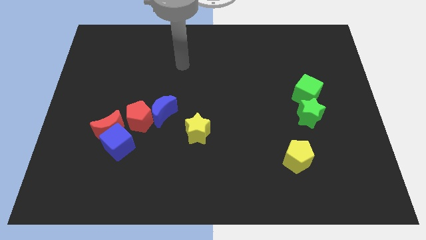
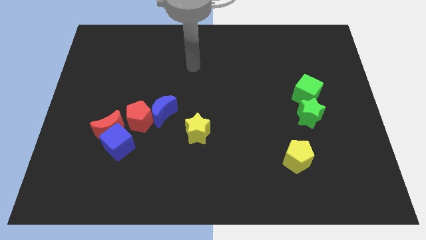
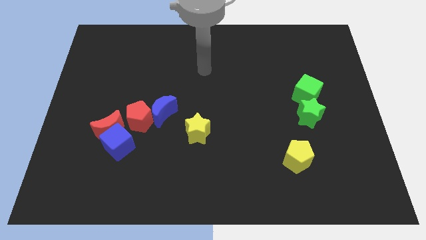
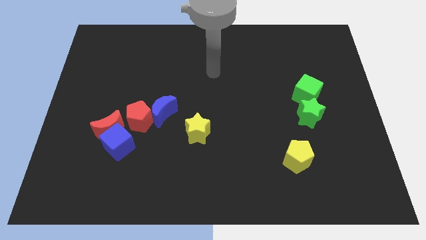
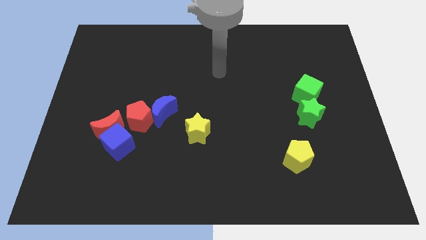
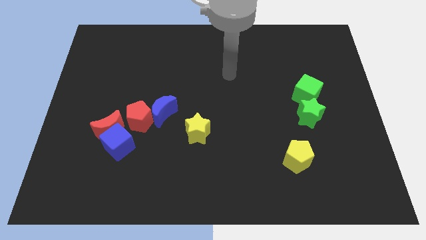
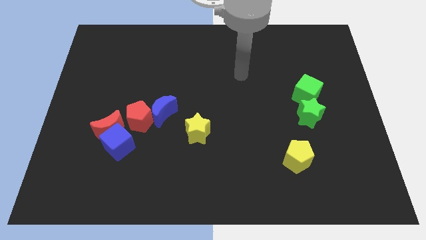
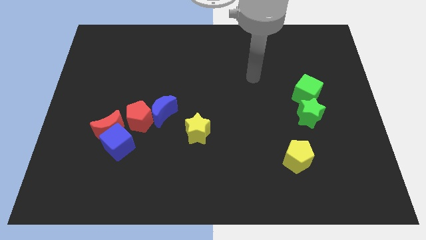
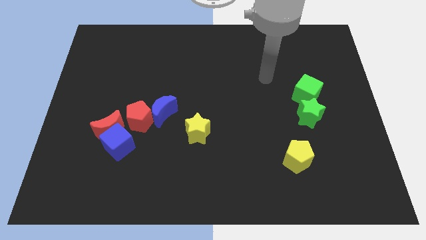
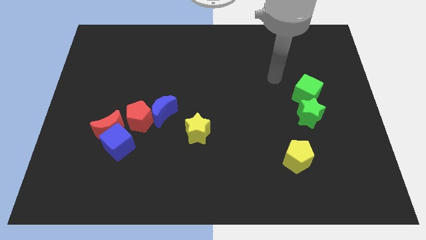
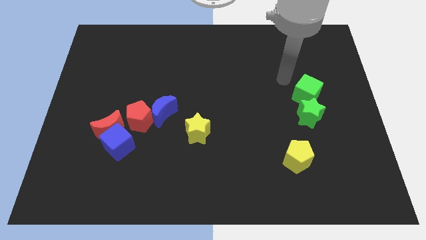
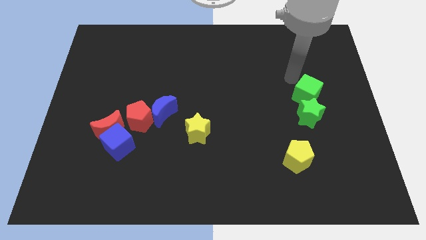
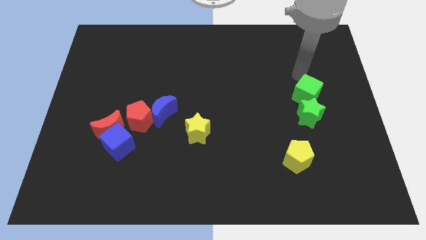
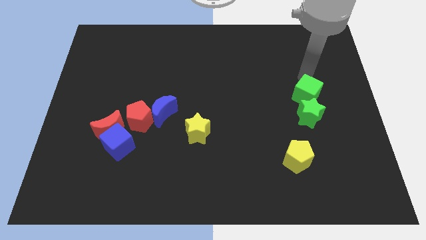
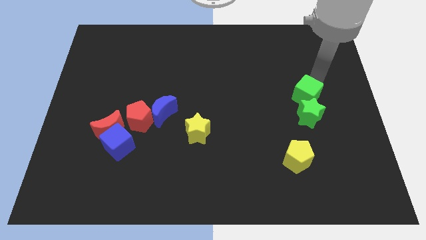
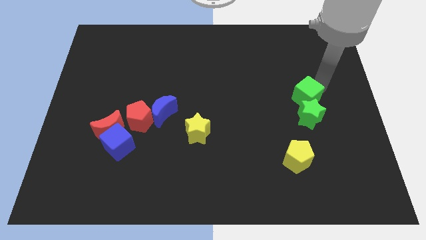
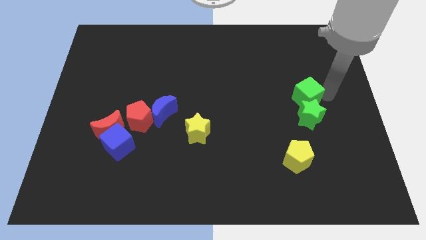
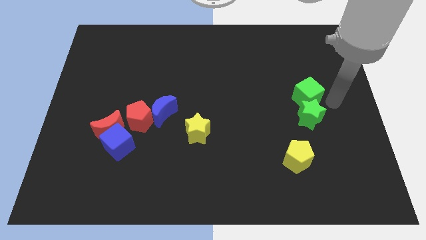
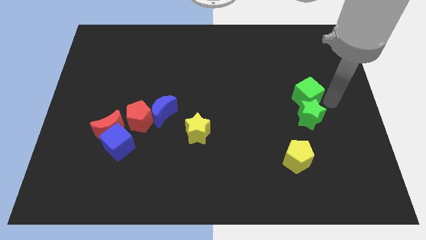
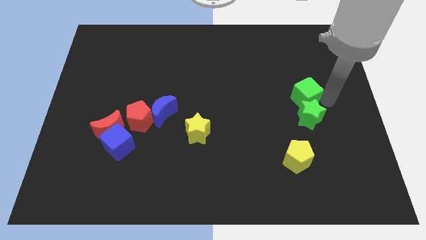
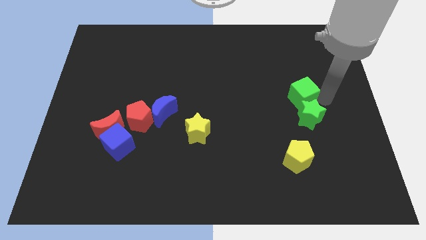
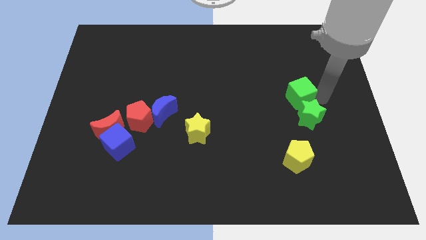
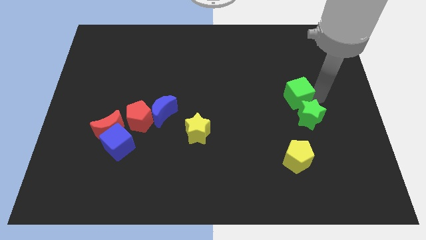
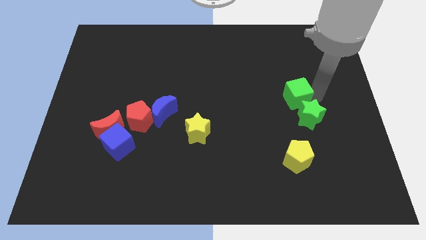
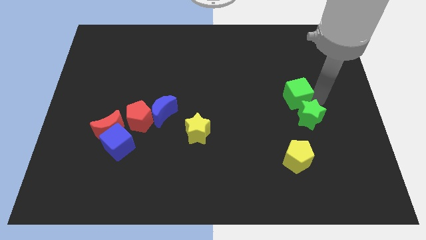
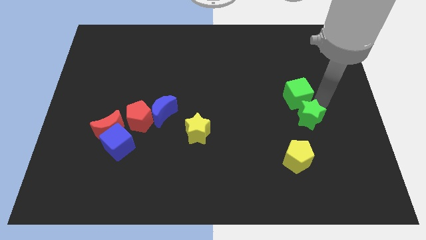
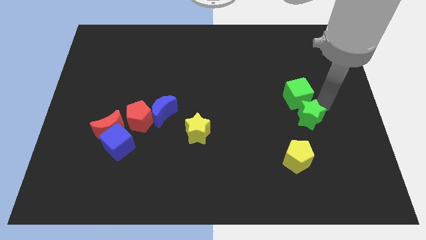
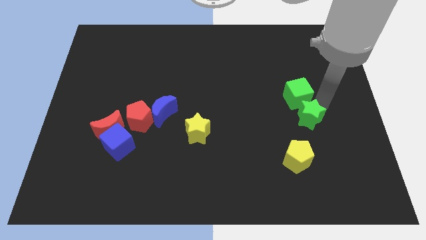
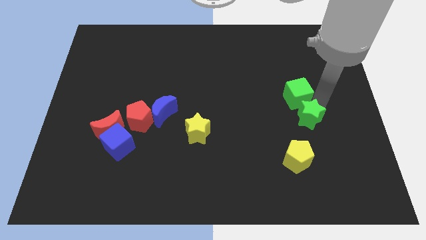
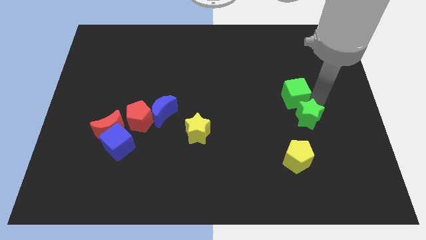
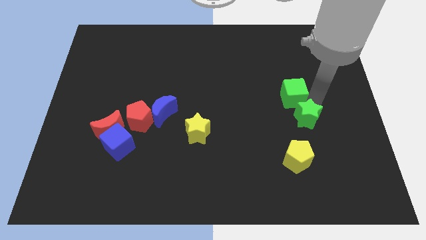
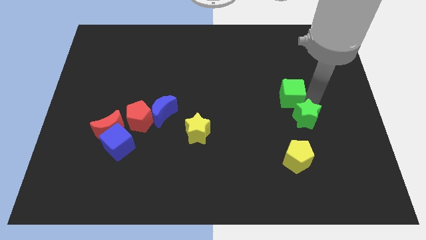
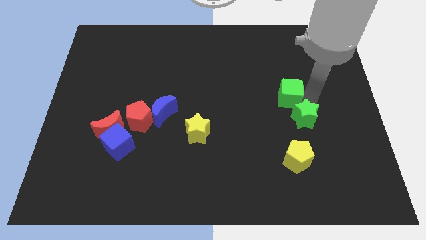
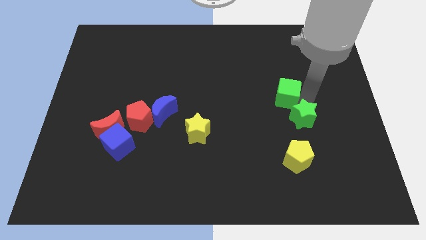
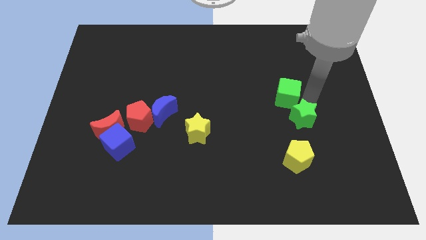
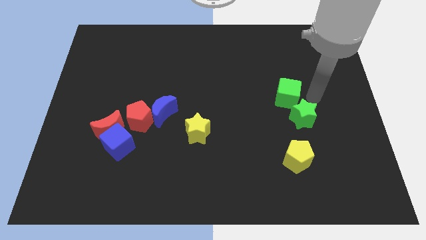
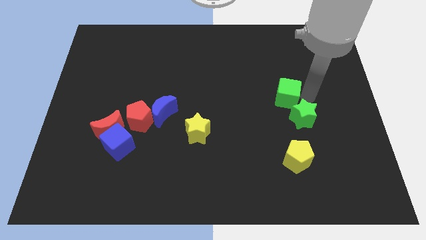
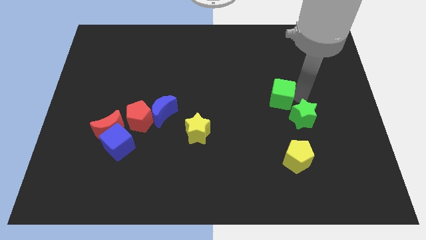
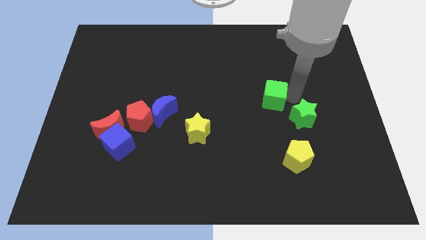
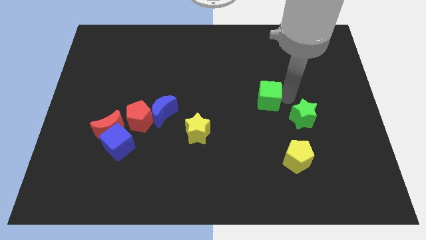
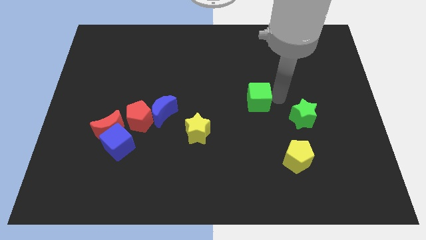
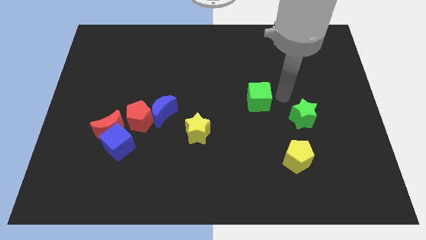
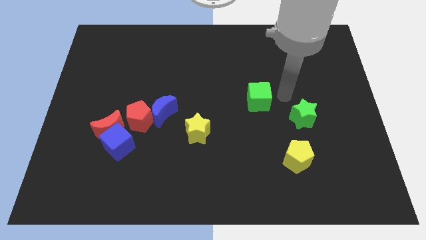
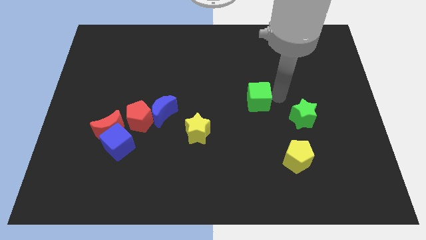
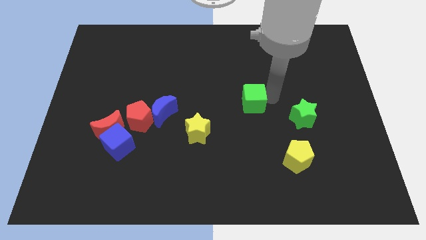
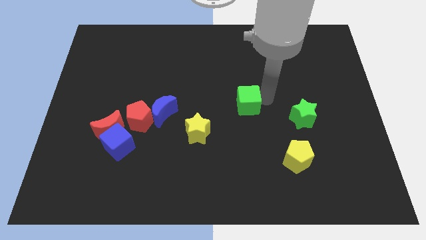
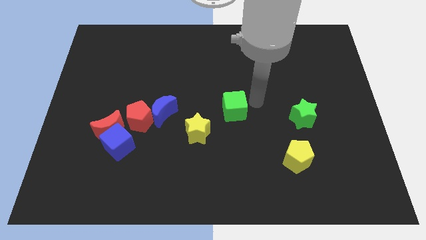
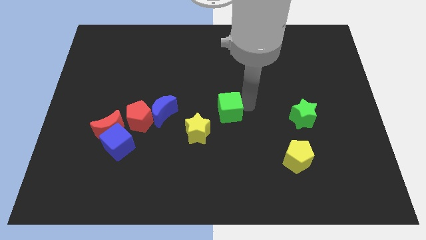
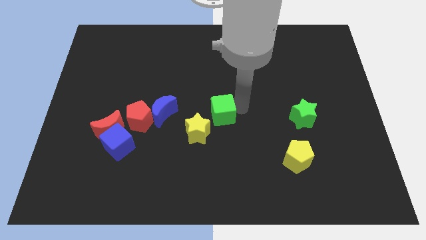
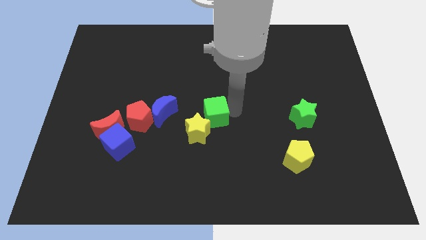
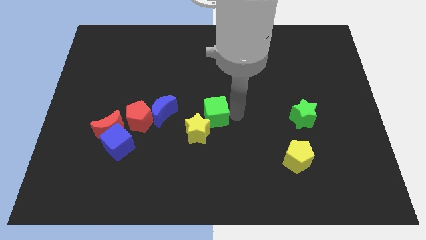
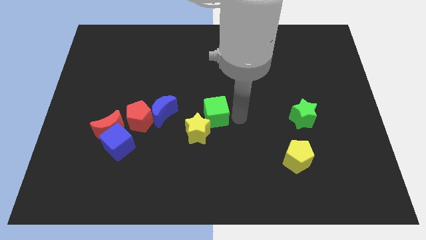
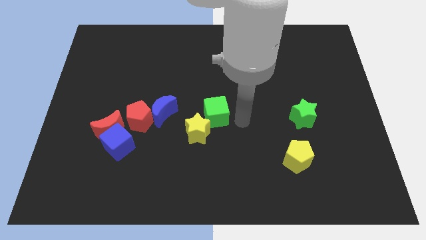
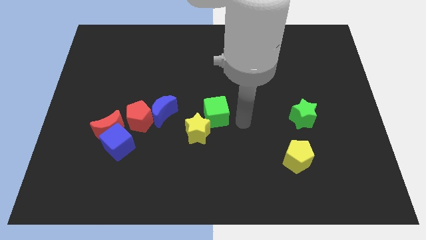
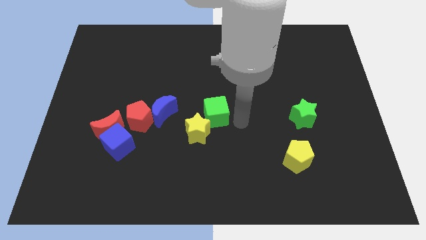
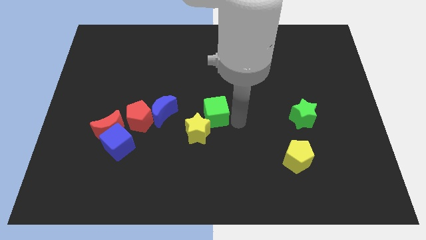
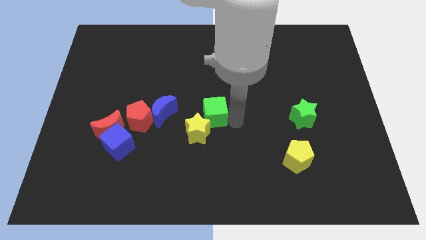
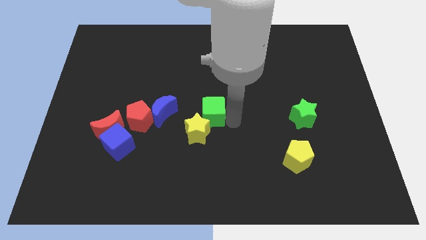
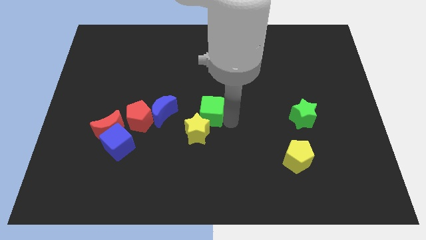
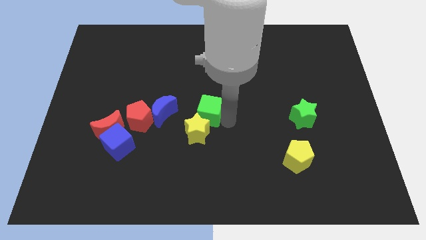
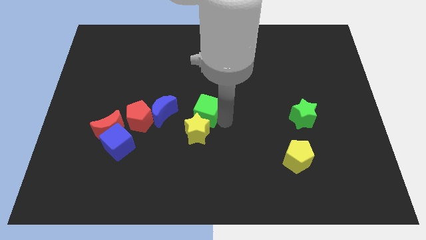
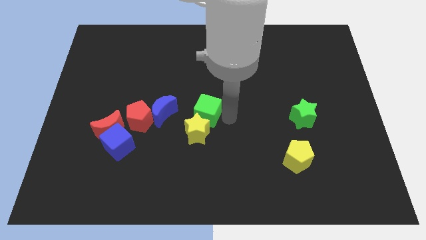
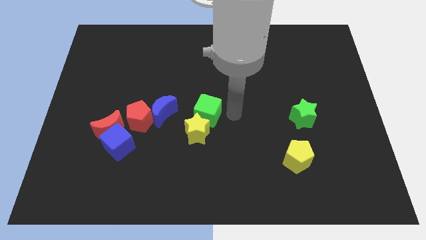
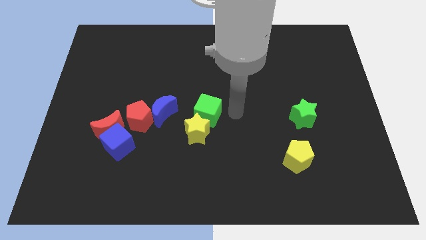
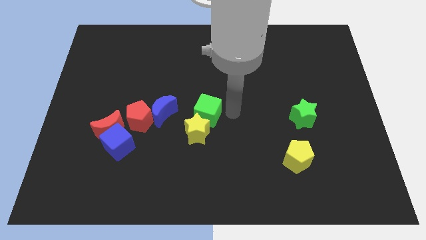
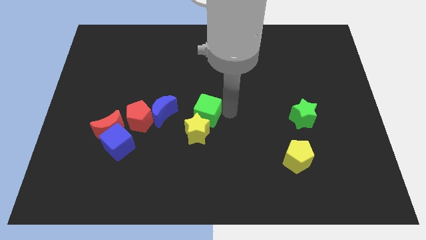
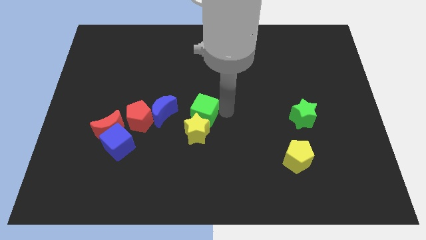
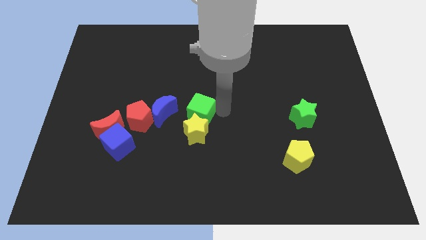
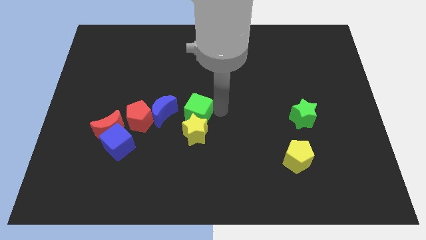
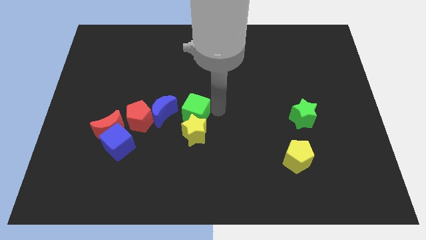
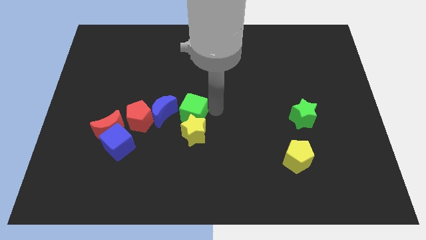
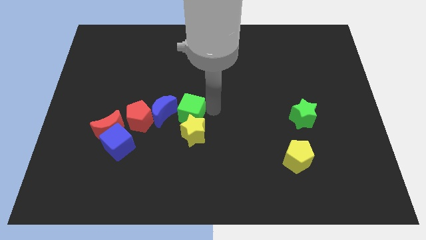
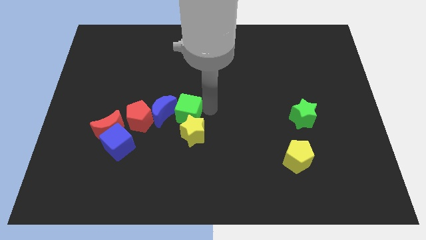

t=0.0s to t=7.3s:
put the green cube to the blue moon

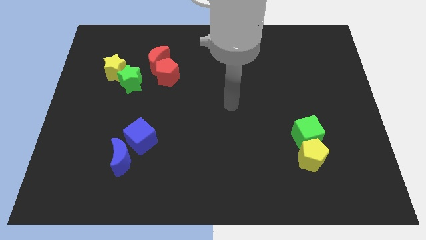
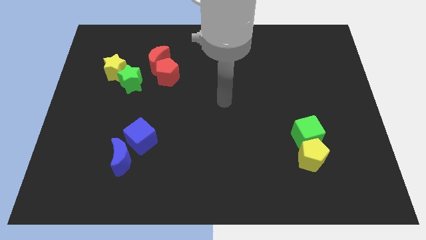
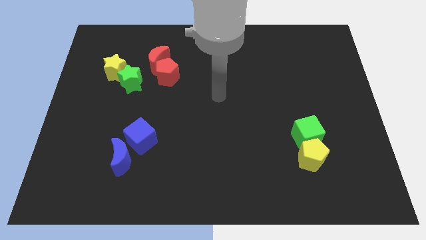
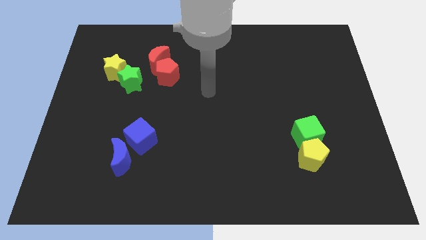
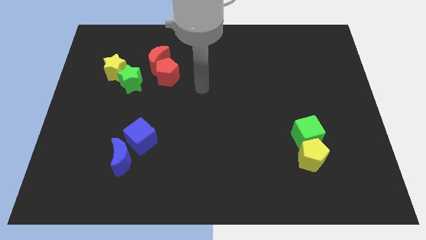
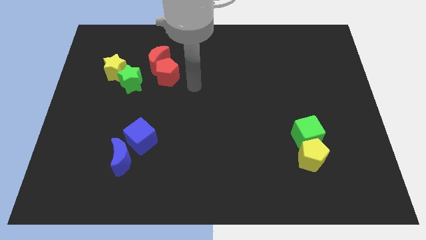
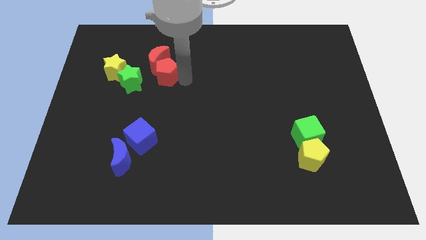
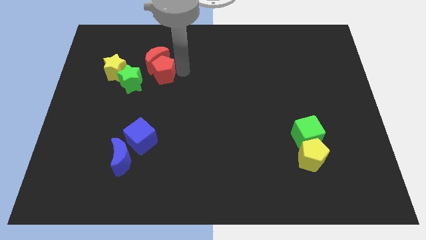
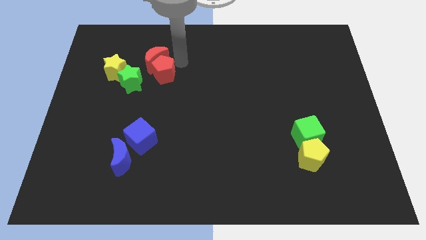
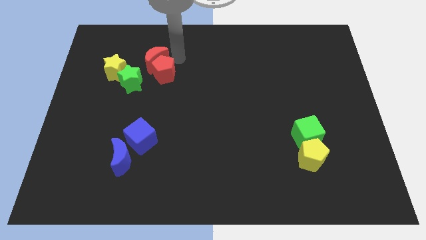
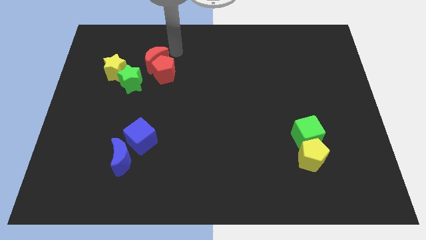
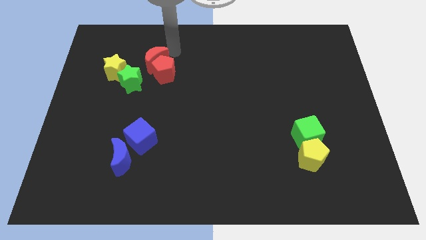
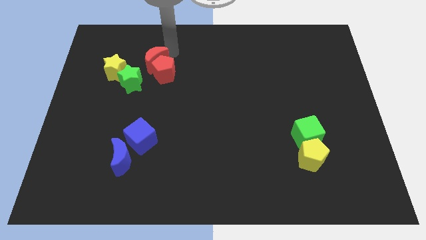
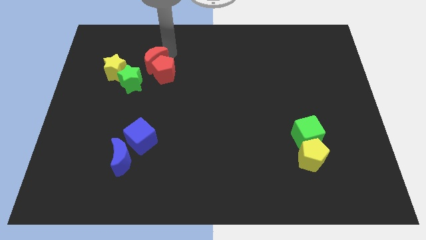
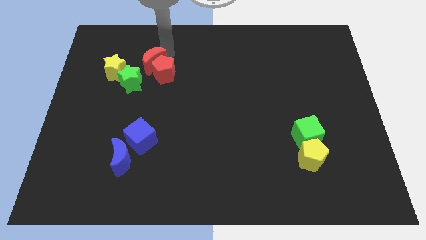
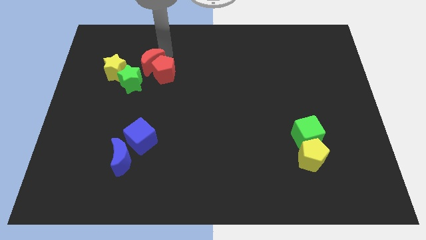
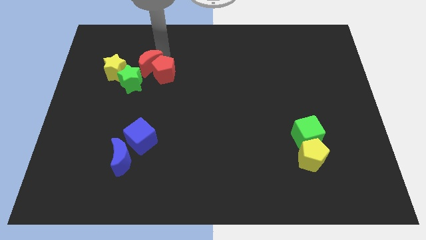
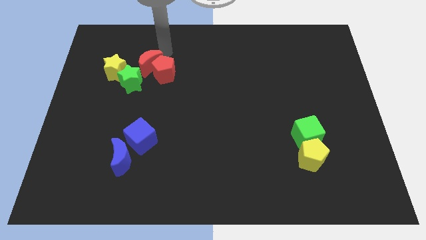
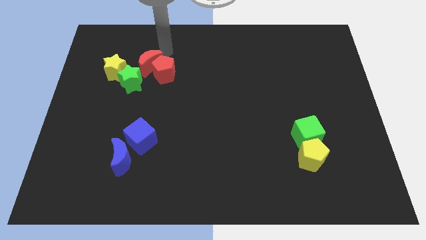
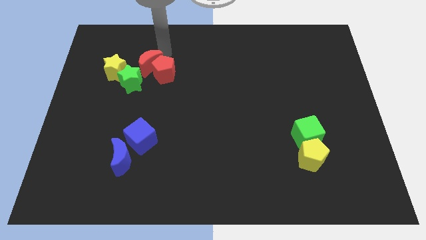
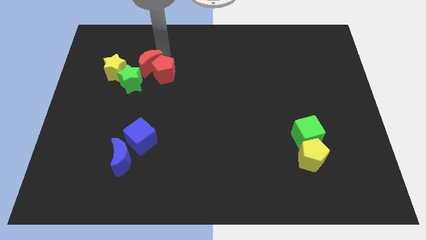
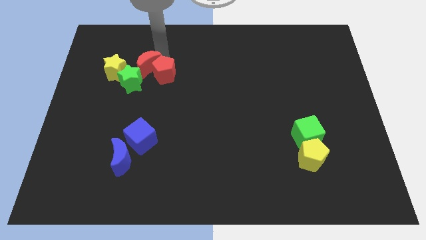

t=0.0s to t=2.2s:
move the red moon towards the green star
